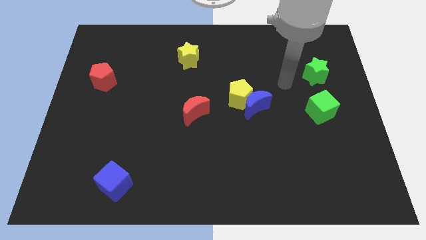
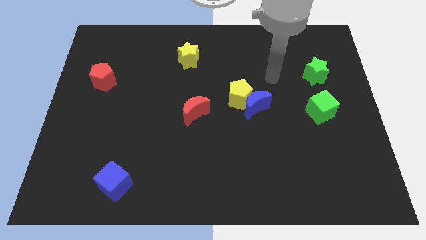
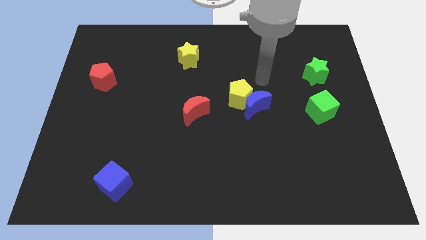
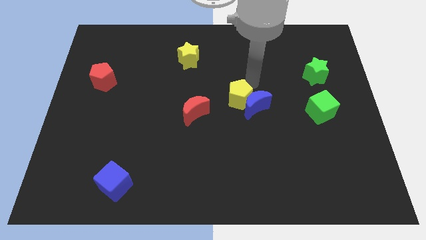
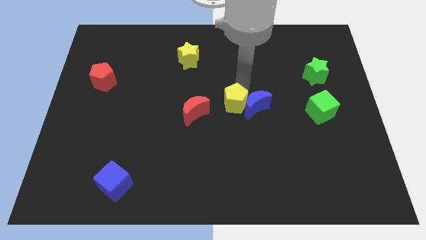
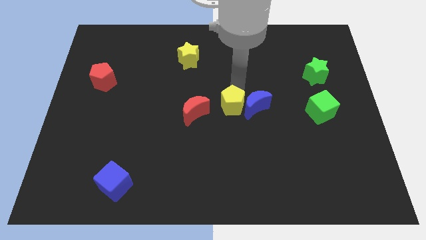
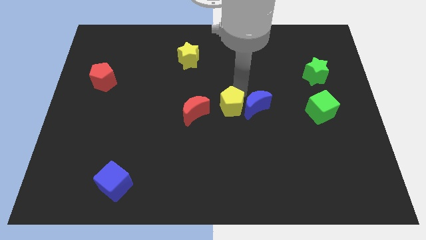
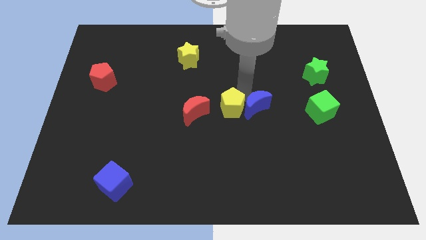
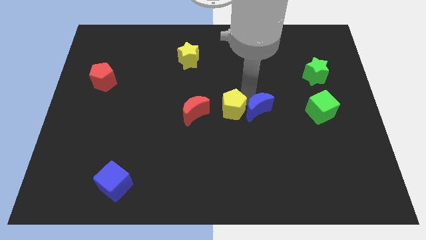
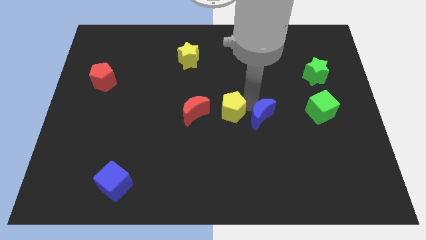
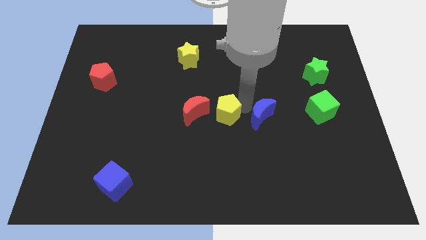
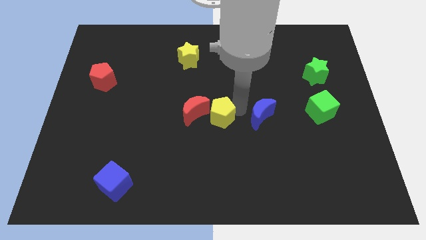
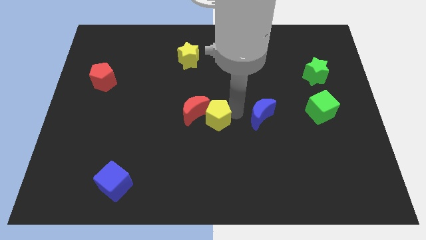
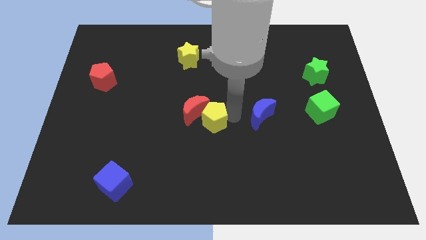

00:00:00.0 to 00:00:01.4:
move the blue moon away from the yellow pentagon

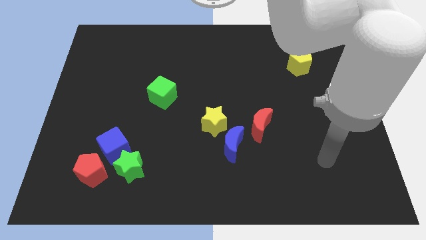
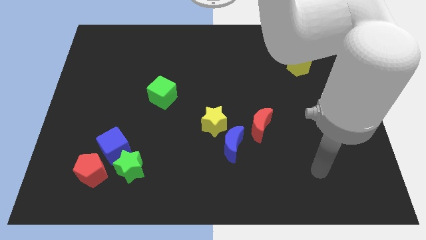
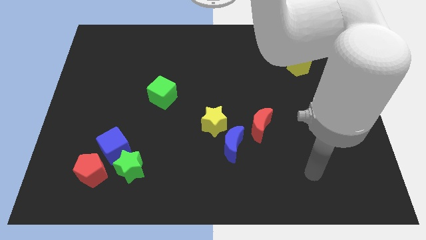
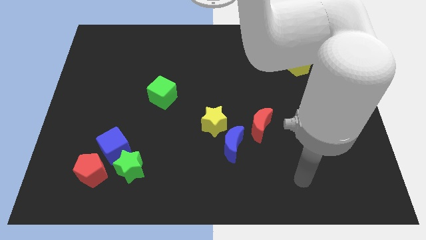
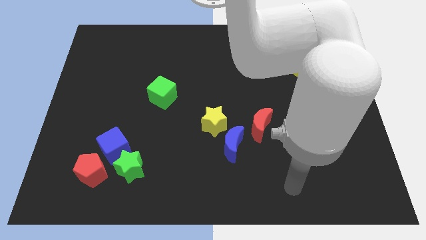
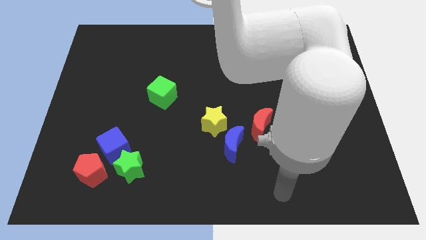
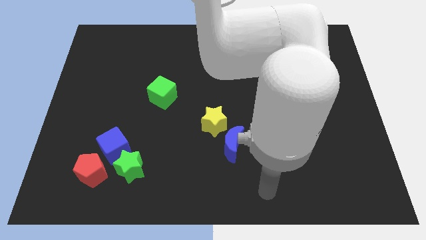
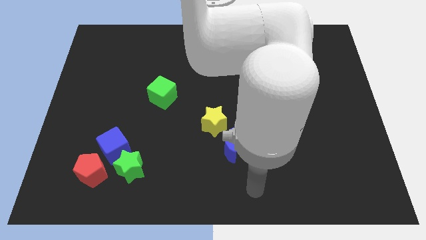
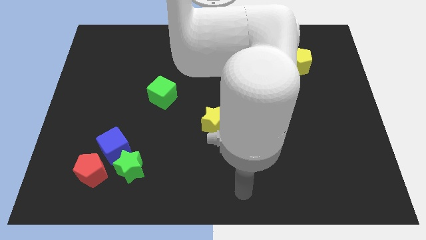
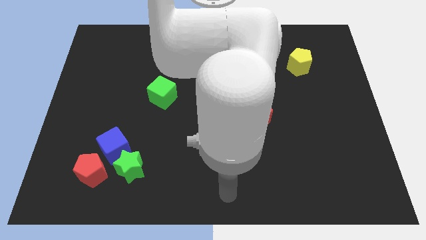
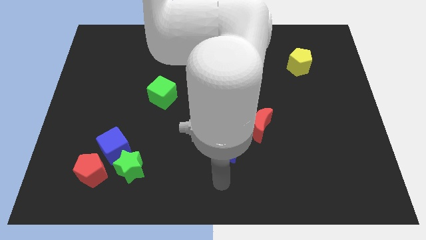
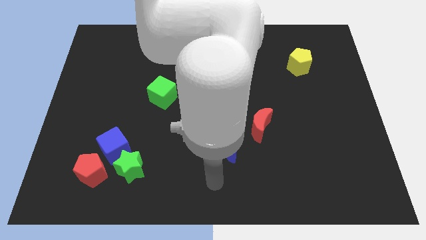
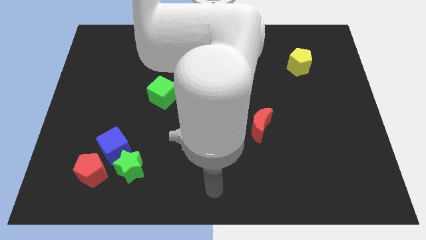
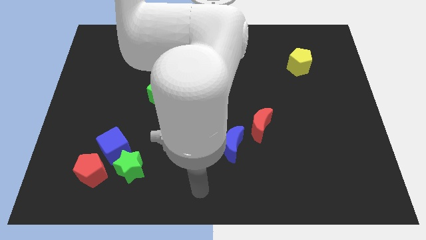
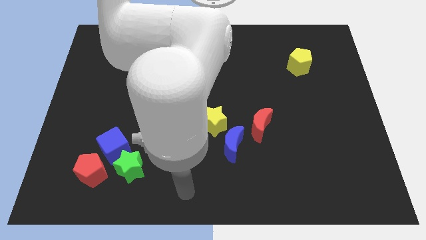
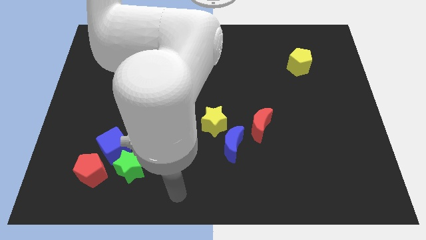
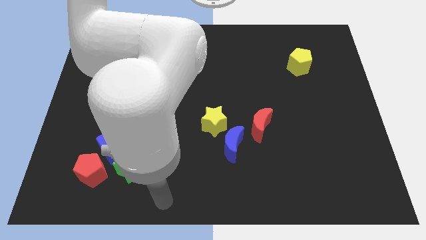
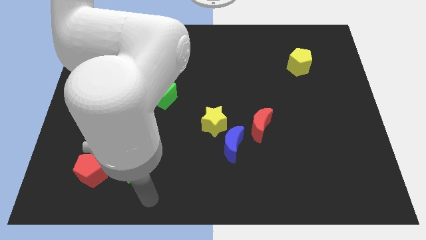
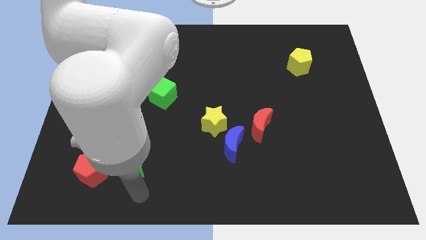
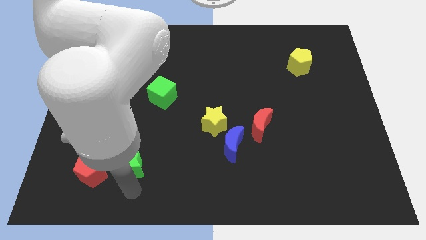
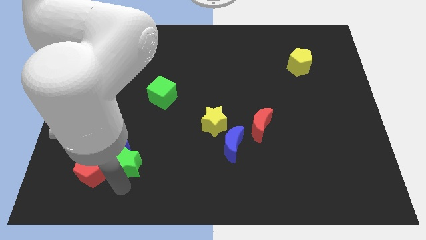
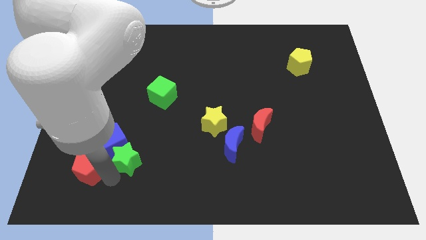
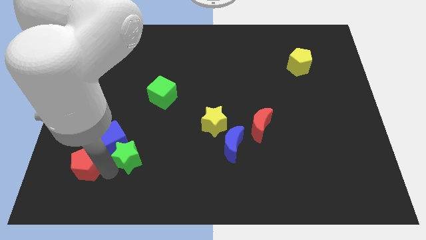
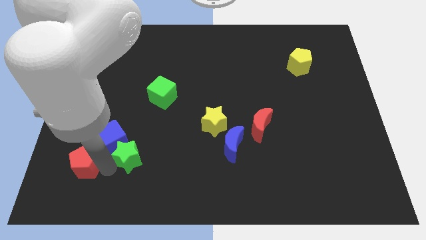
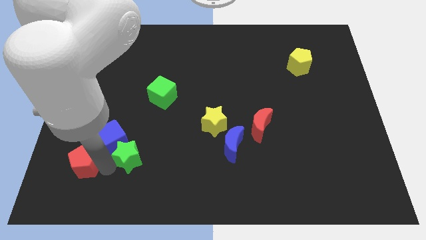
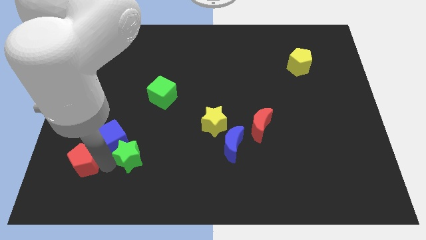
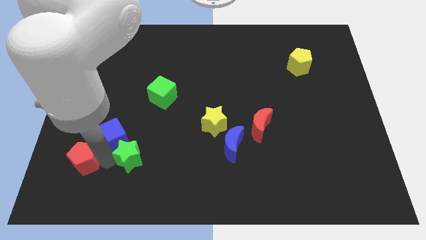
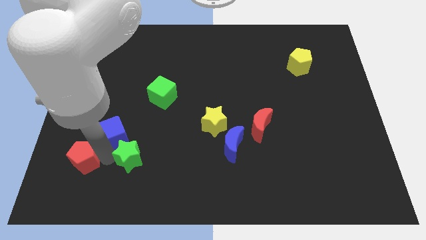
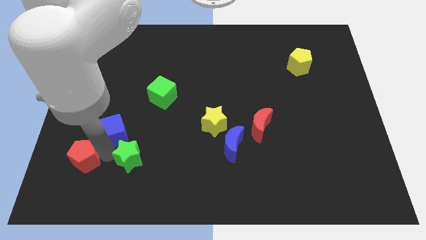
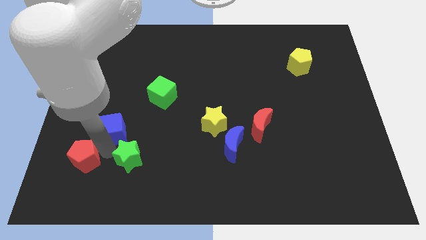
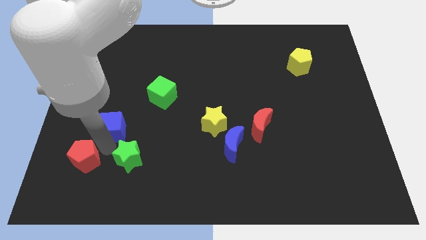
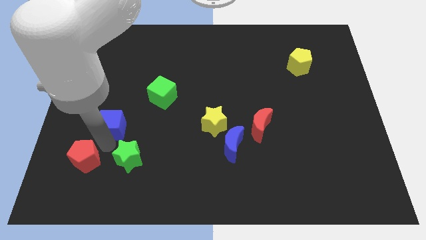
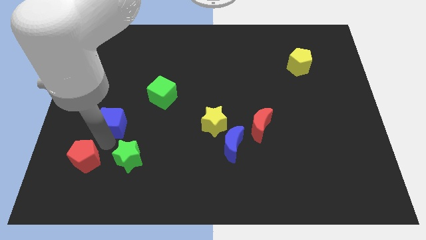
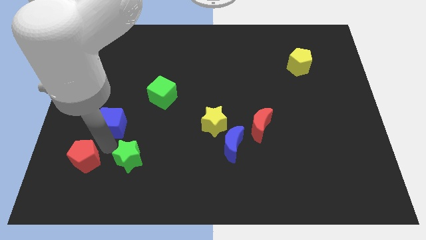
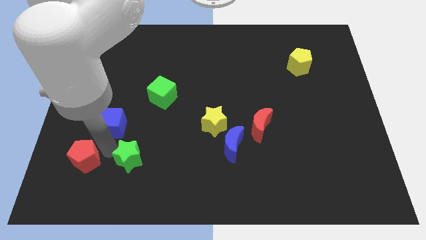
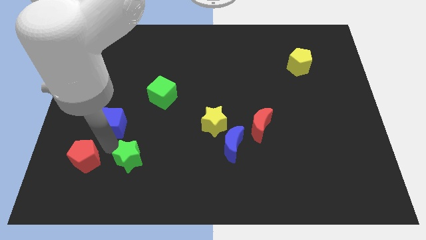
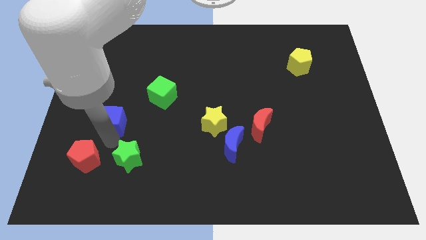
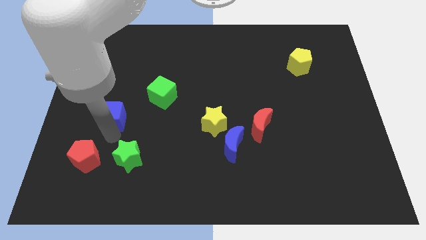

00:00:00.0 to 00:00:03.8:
separate the blue cube from the green star and red pentagon

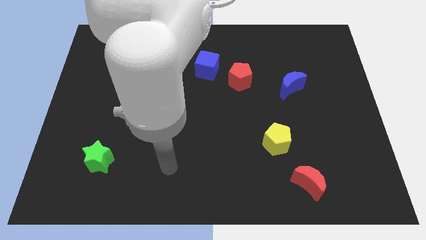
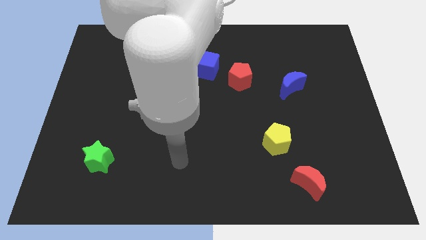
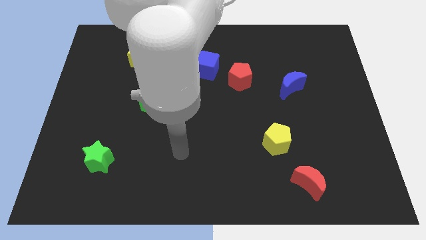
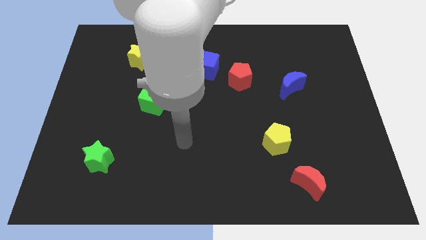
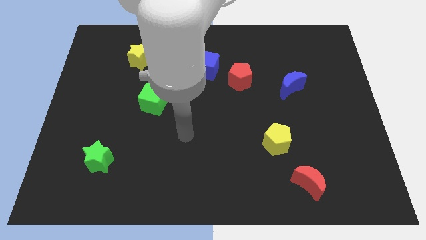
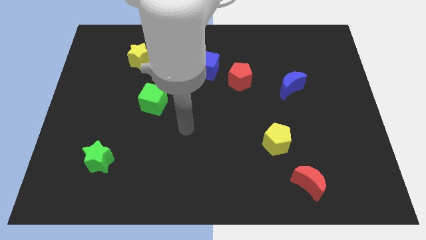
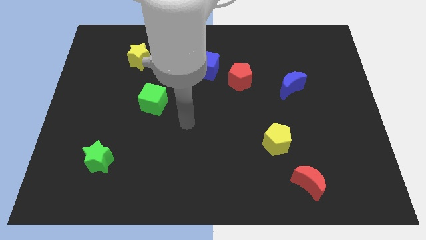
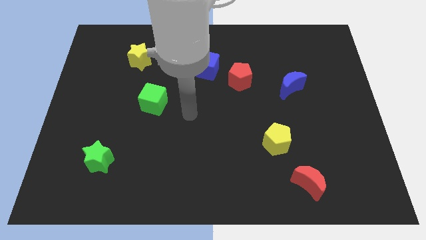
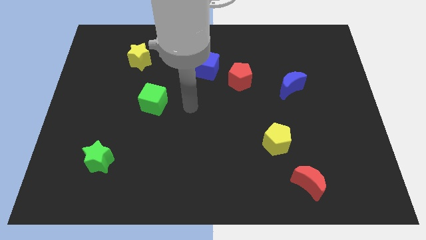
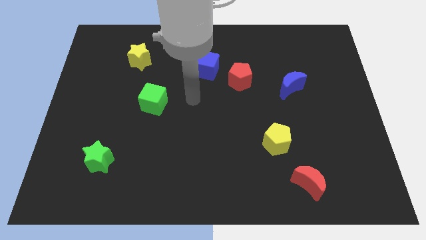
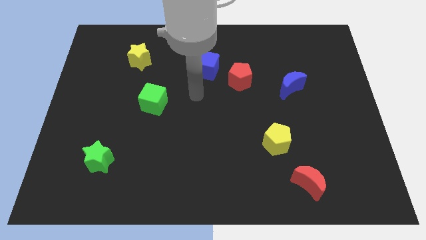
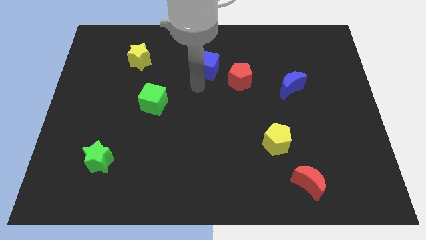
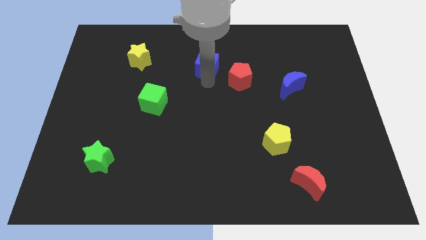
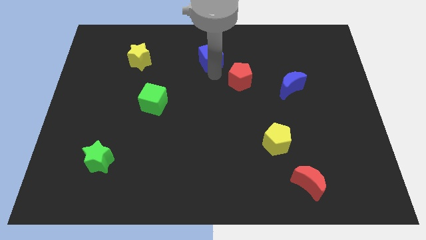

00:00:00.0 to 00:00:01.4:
pull the red pentagon apart from the blue cube

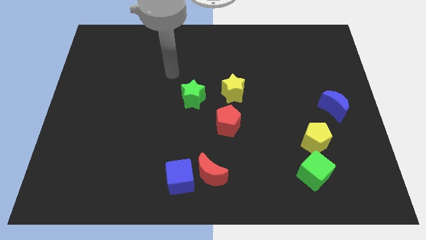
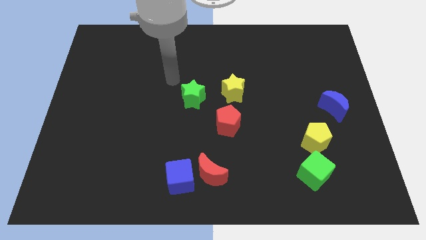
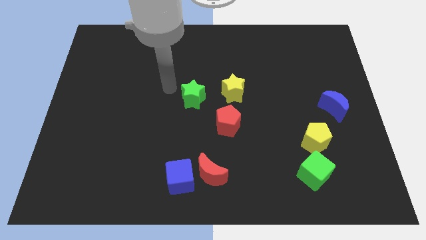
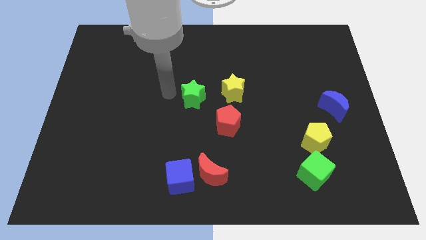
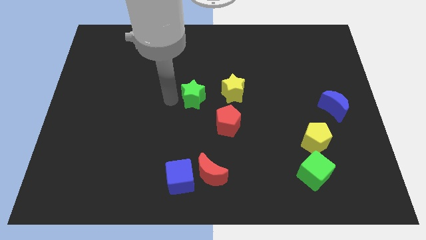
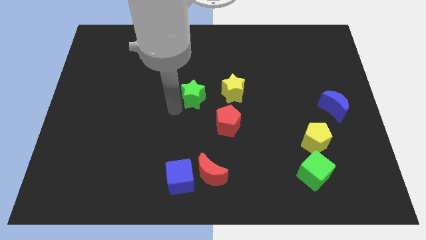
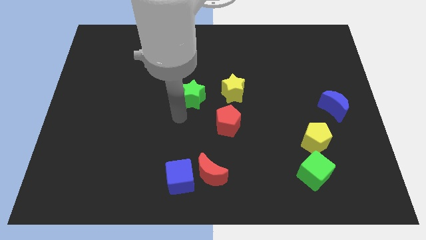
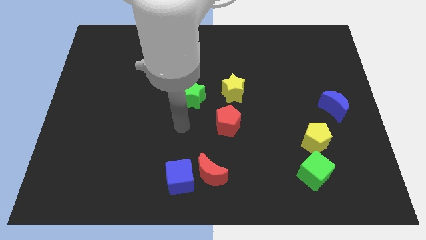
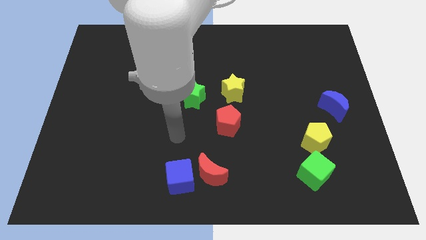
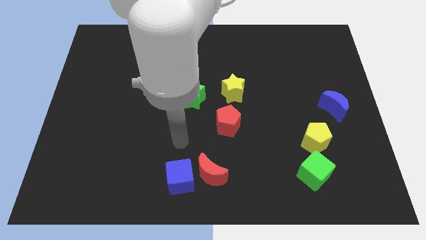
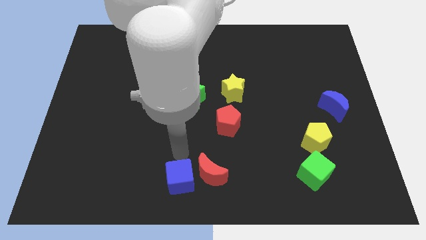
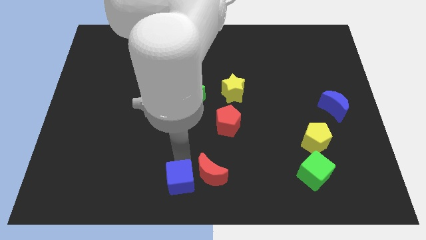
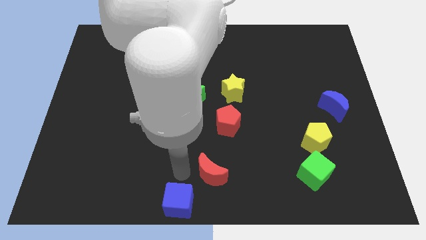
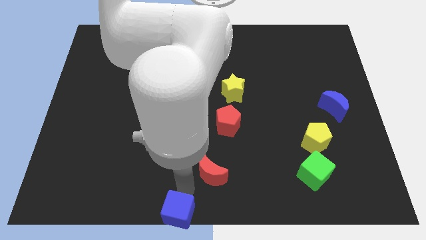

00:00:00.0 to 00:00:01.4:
move the red moon away from the blue cube

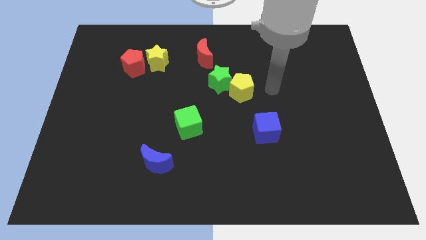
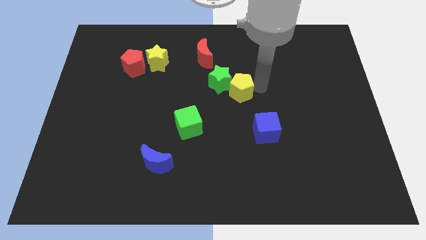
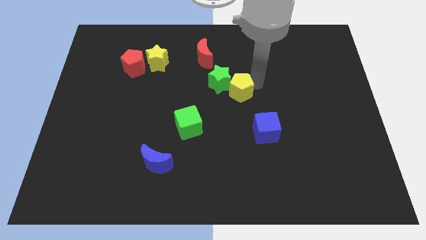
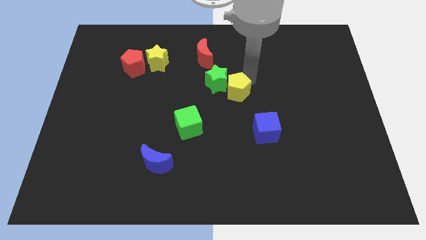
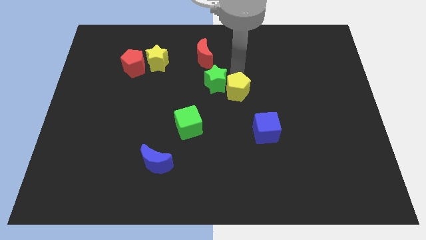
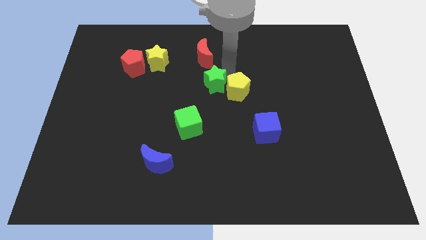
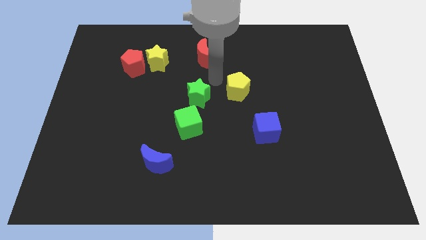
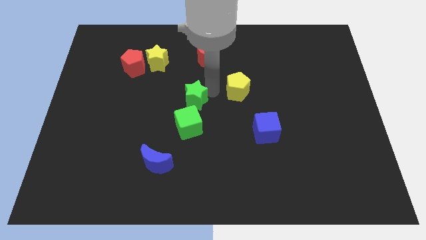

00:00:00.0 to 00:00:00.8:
pull the yellow pentagon apart from the green star

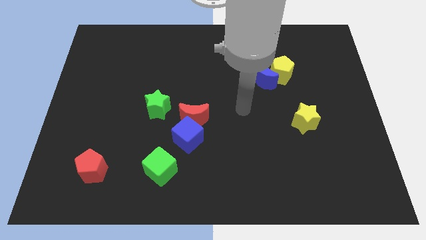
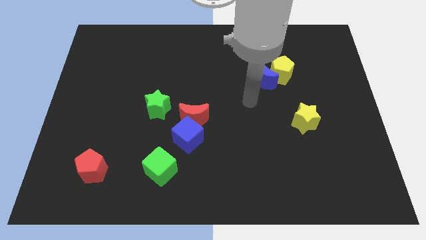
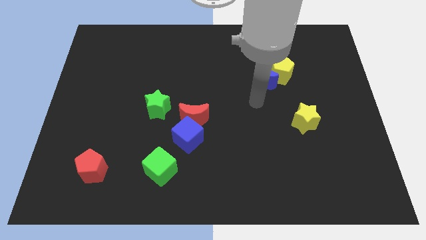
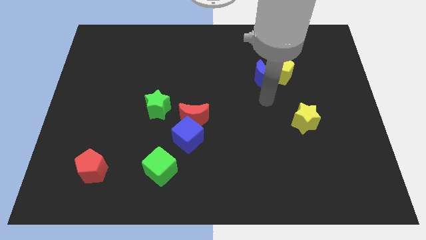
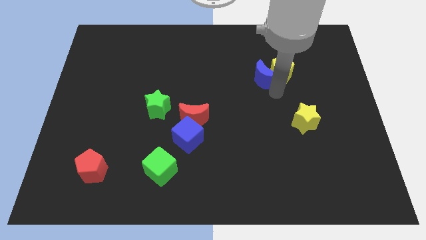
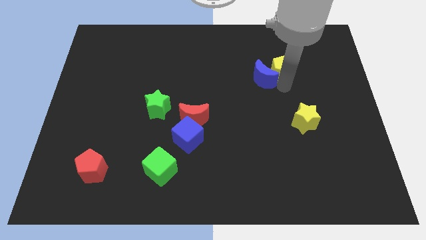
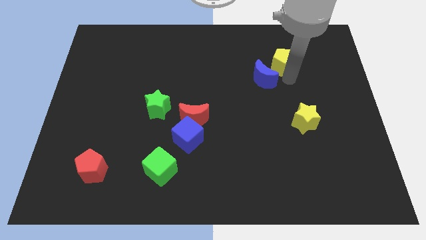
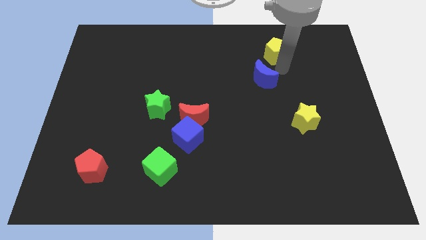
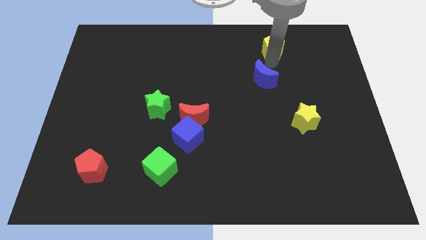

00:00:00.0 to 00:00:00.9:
pull the blue moon apart from the yellow pentagon
